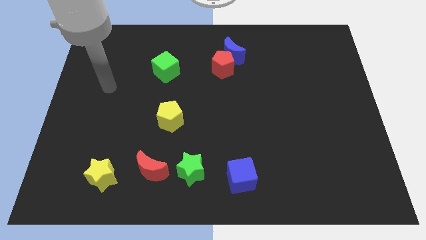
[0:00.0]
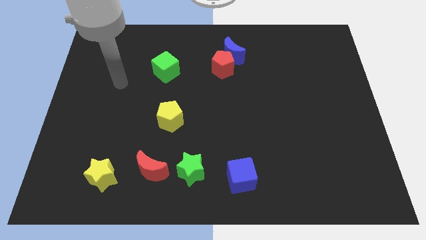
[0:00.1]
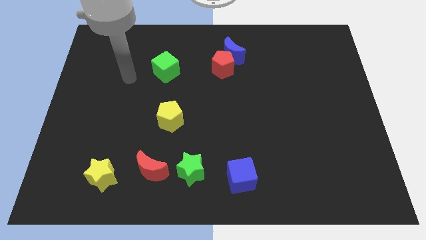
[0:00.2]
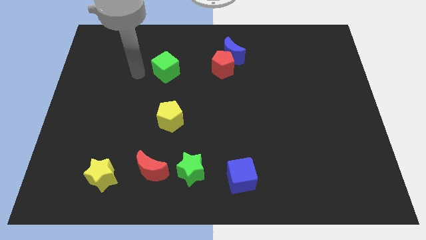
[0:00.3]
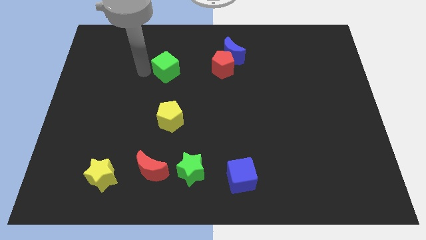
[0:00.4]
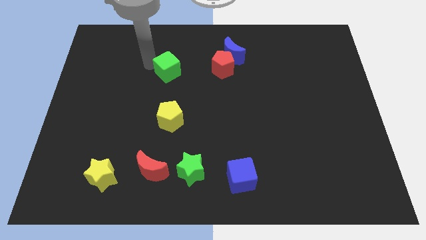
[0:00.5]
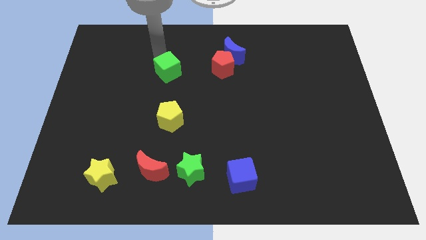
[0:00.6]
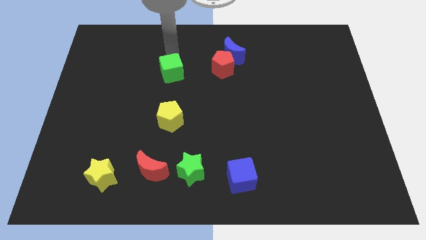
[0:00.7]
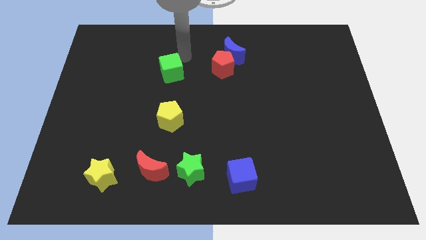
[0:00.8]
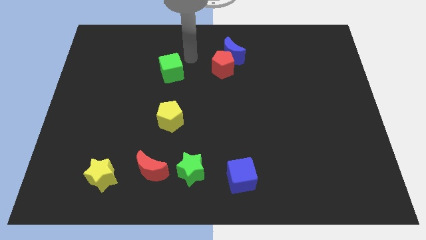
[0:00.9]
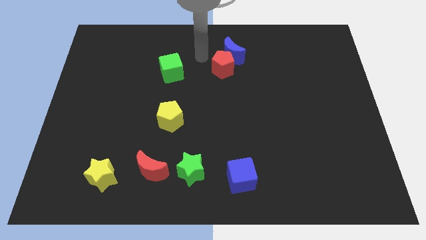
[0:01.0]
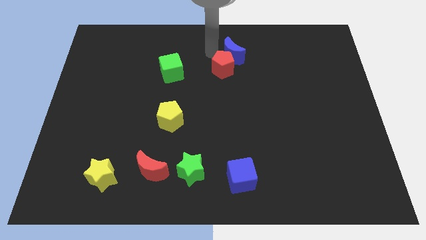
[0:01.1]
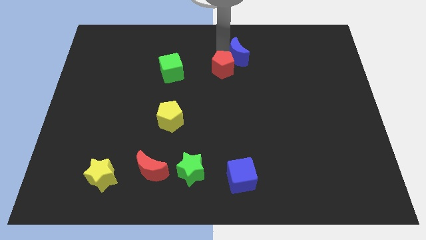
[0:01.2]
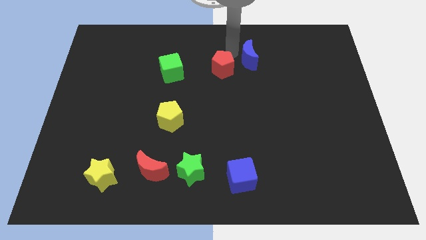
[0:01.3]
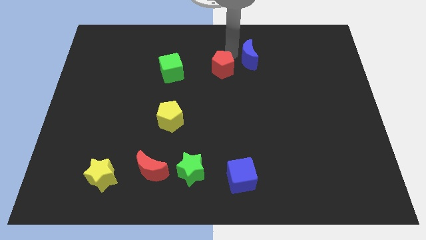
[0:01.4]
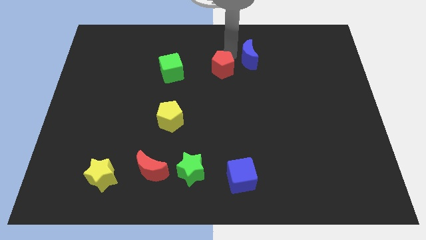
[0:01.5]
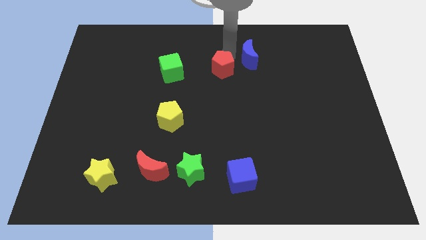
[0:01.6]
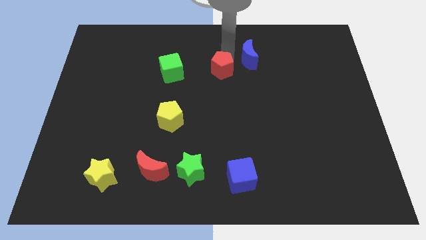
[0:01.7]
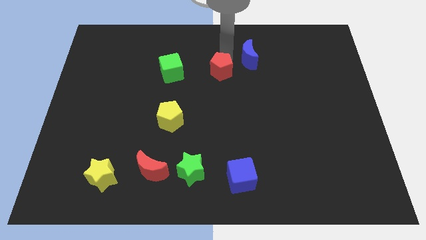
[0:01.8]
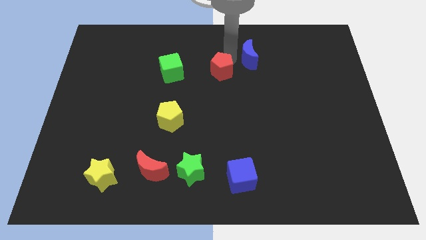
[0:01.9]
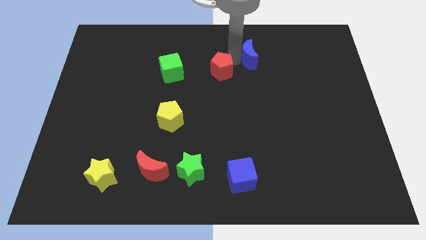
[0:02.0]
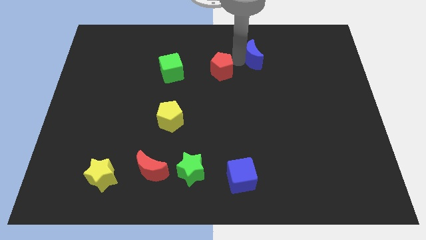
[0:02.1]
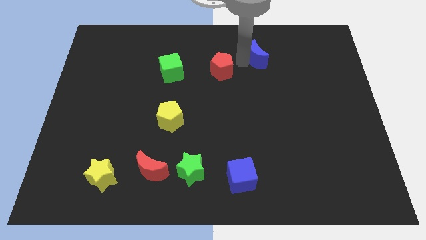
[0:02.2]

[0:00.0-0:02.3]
move the red pentagon away from the blue moon

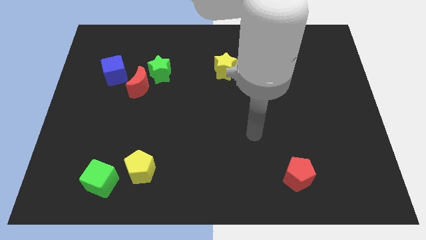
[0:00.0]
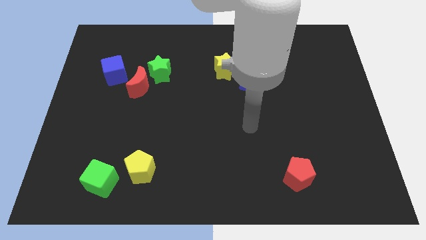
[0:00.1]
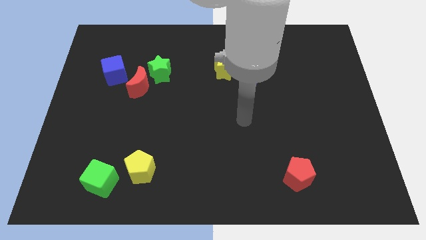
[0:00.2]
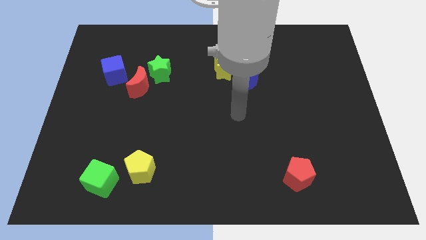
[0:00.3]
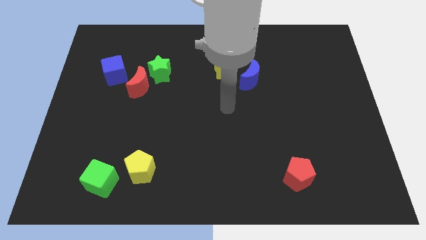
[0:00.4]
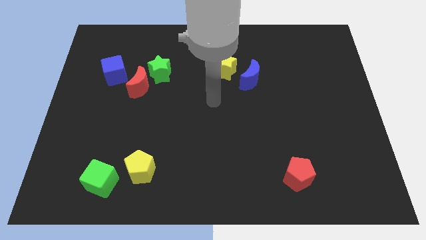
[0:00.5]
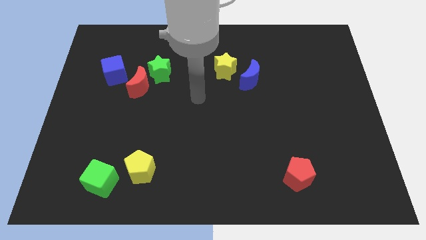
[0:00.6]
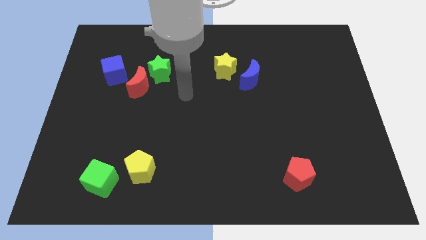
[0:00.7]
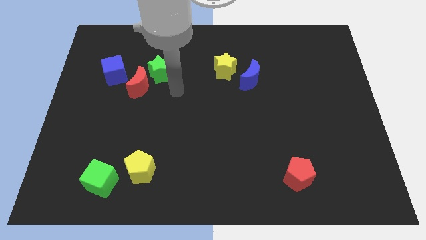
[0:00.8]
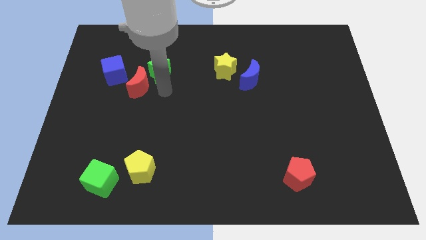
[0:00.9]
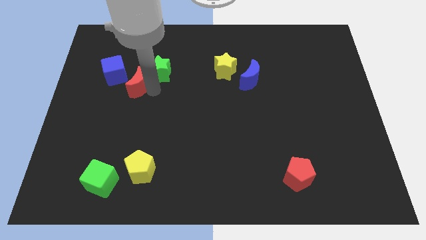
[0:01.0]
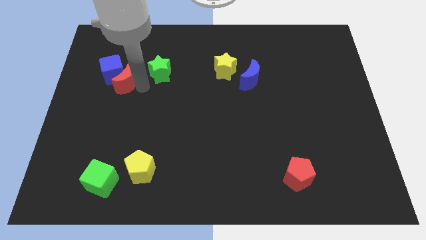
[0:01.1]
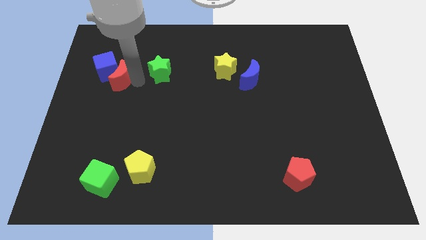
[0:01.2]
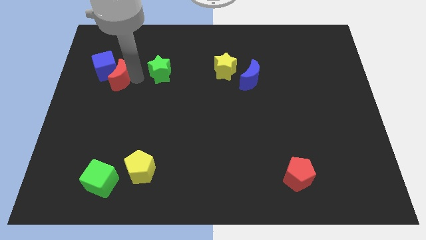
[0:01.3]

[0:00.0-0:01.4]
pull the green star apart from the red moon

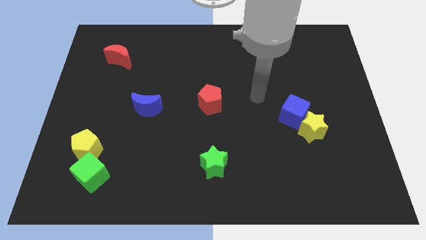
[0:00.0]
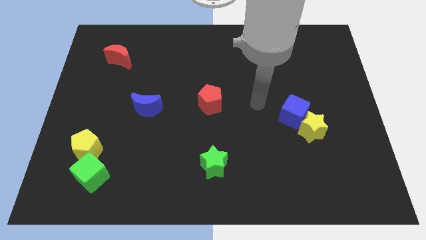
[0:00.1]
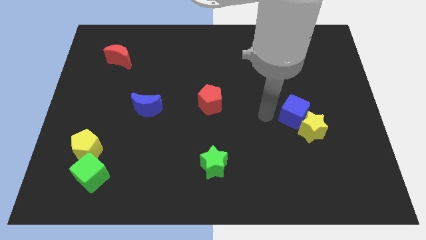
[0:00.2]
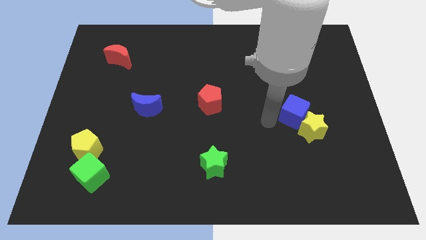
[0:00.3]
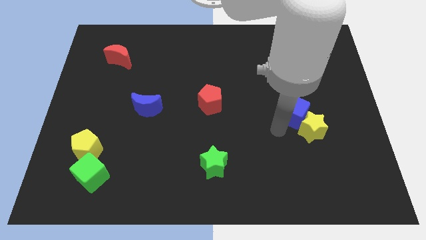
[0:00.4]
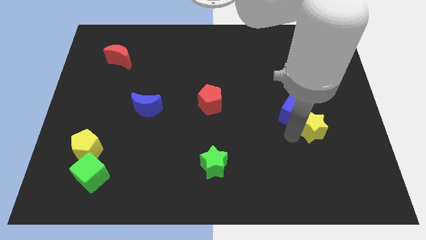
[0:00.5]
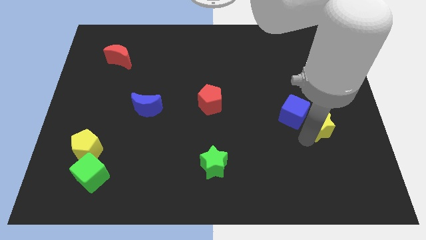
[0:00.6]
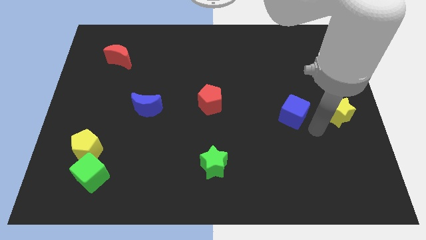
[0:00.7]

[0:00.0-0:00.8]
move the blue cube away from the yellow star

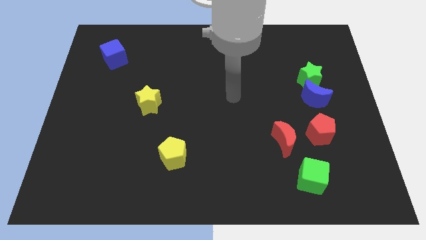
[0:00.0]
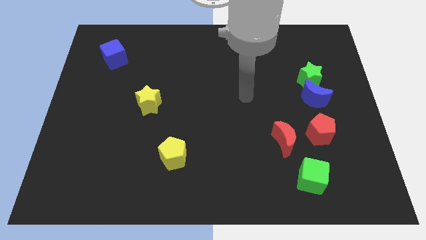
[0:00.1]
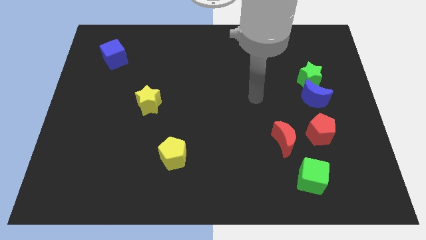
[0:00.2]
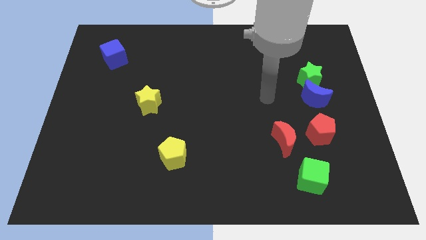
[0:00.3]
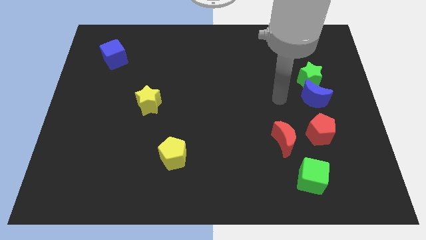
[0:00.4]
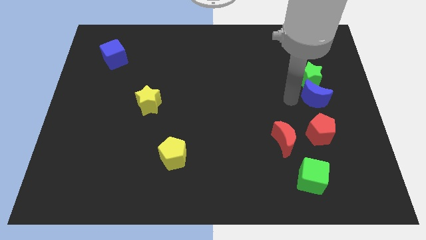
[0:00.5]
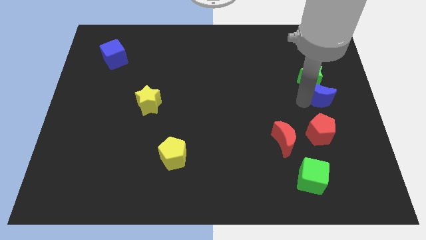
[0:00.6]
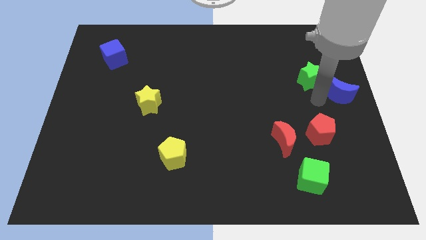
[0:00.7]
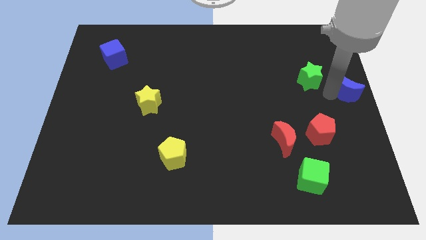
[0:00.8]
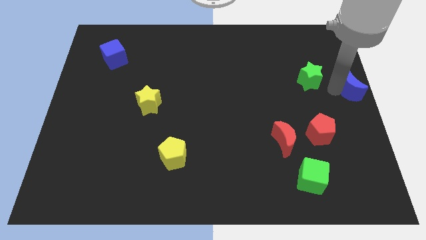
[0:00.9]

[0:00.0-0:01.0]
separate the green star from the blue moon

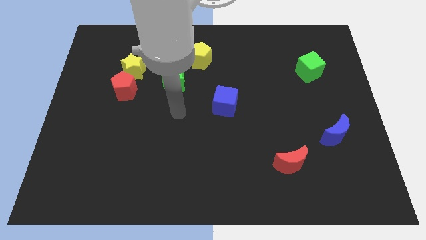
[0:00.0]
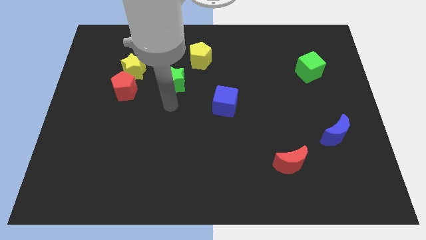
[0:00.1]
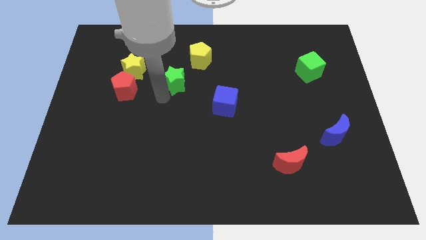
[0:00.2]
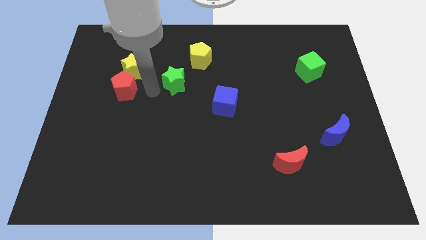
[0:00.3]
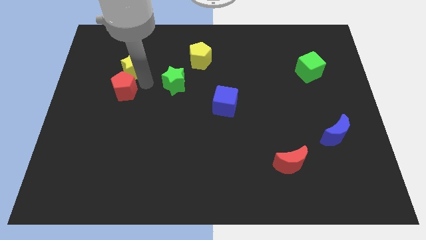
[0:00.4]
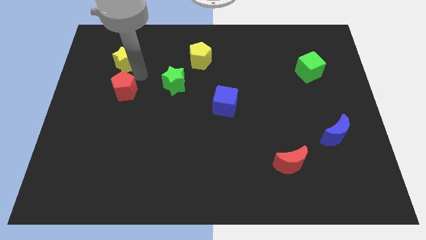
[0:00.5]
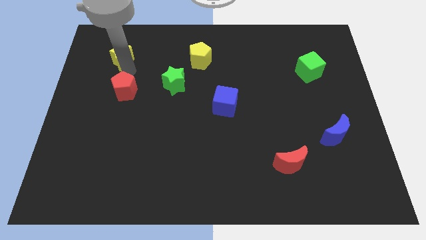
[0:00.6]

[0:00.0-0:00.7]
separate the red pentagon from the yellow star

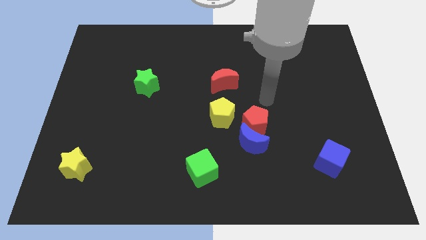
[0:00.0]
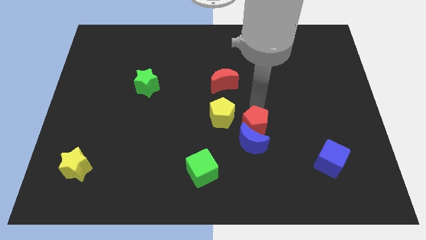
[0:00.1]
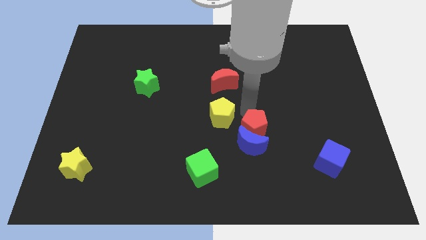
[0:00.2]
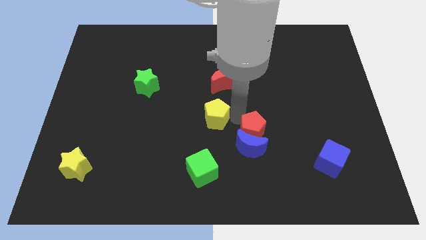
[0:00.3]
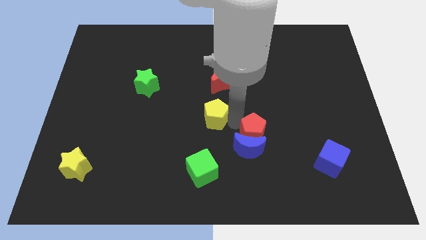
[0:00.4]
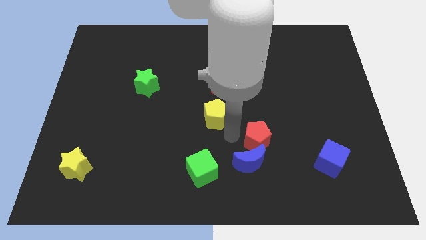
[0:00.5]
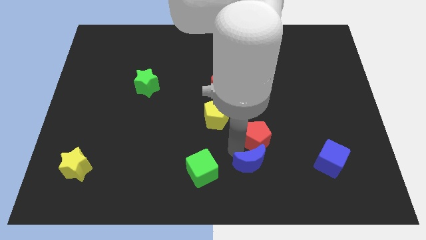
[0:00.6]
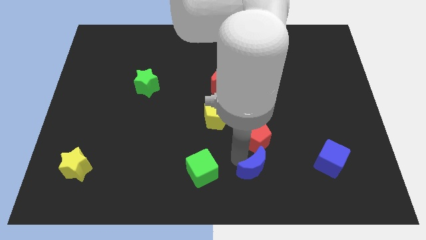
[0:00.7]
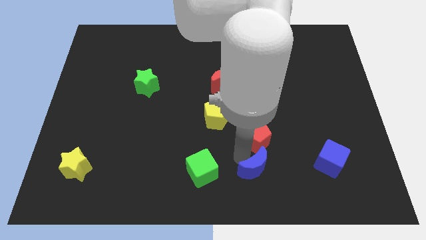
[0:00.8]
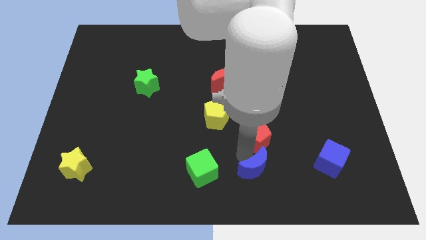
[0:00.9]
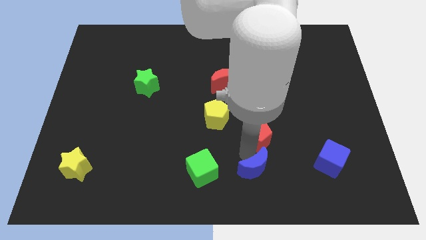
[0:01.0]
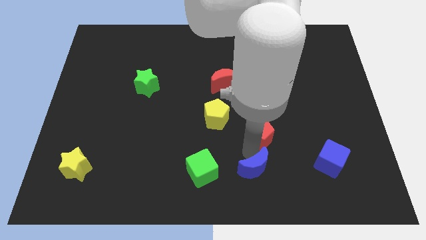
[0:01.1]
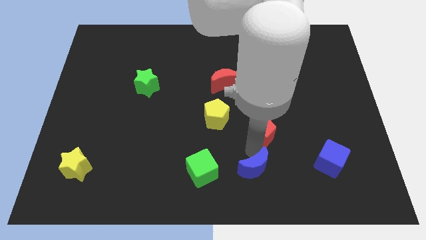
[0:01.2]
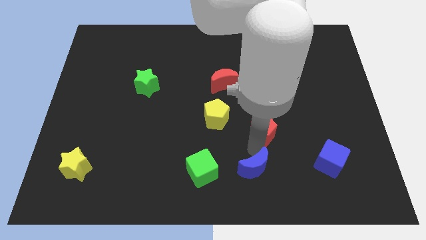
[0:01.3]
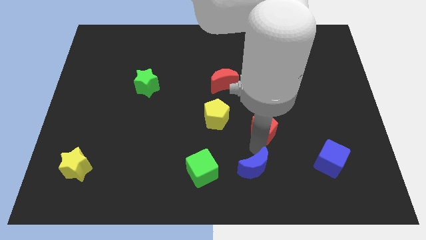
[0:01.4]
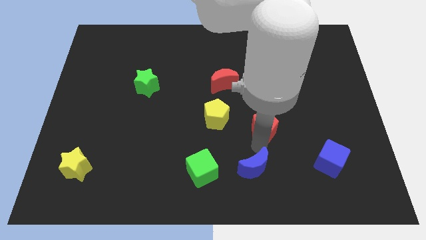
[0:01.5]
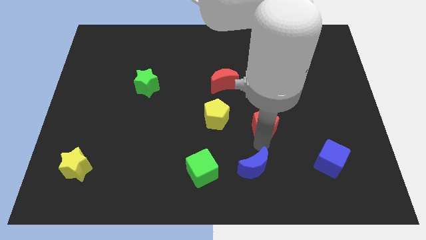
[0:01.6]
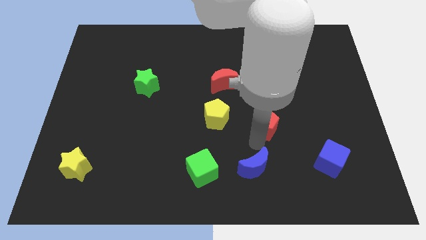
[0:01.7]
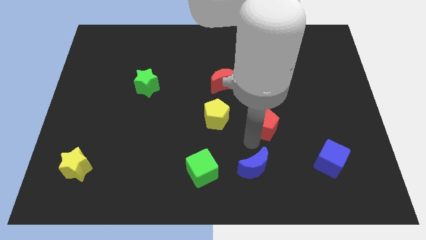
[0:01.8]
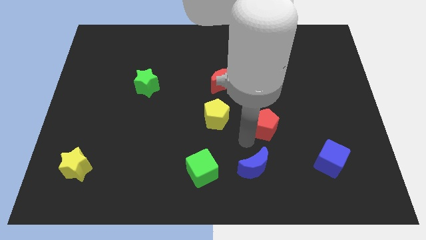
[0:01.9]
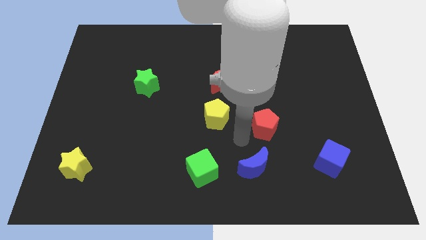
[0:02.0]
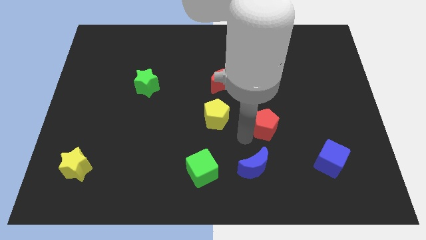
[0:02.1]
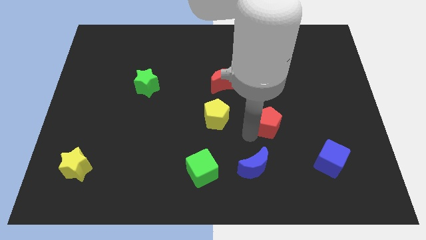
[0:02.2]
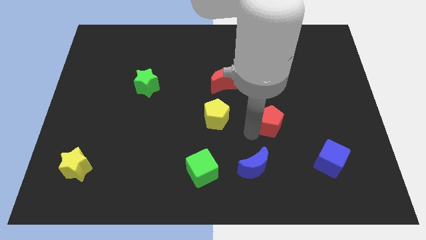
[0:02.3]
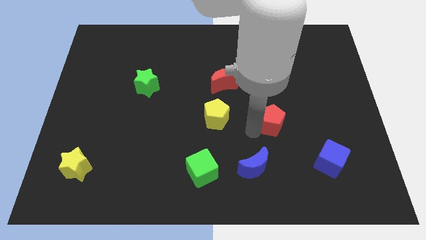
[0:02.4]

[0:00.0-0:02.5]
pull the red pentagon apart from the blue moon and yellow pentagon

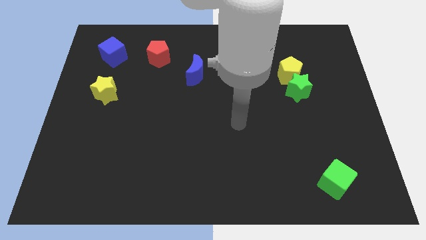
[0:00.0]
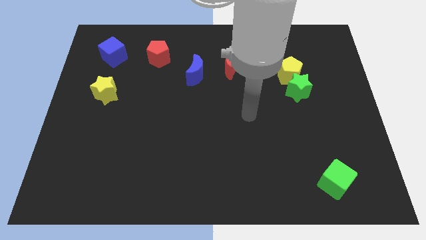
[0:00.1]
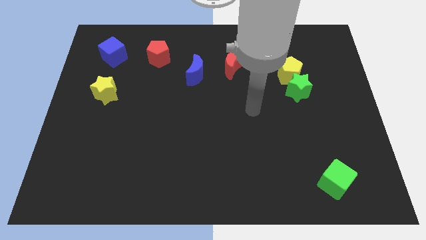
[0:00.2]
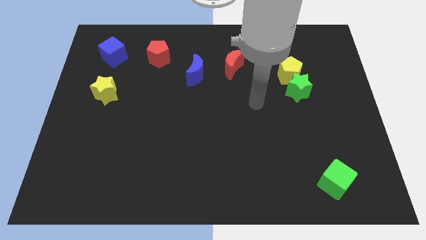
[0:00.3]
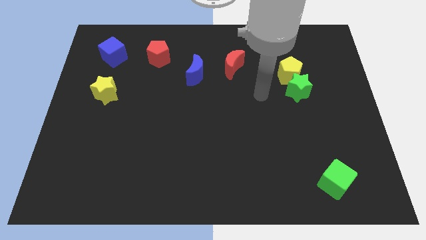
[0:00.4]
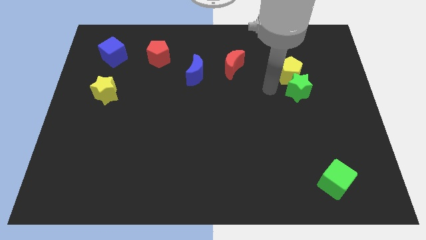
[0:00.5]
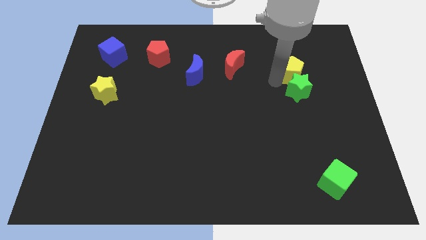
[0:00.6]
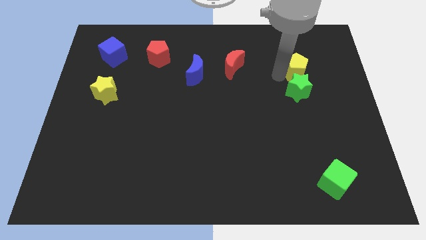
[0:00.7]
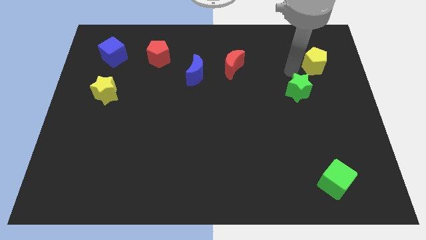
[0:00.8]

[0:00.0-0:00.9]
pull the green star apart from the yellow pentagon
